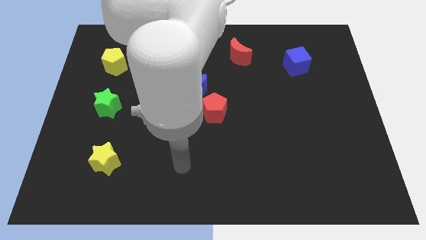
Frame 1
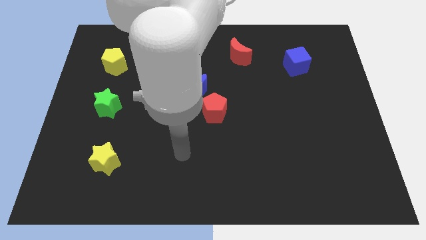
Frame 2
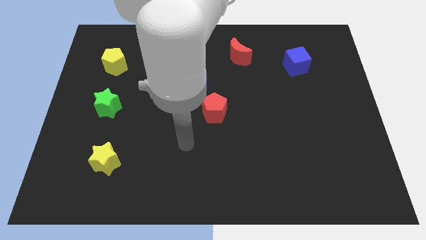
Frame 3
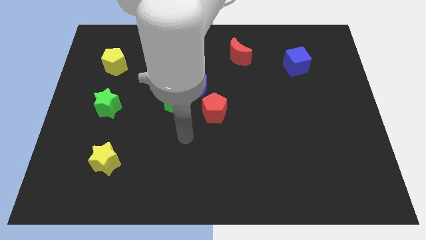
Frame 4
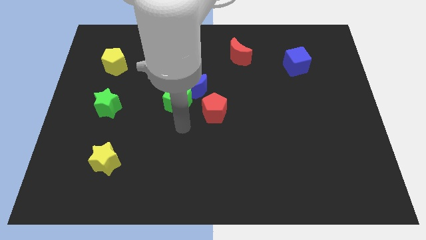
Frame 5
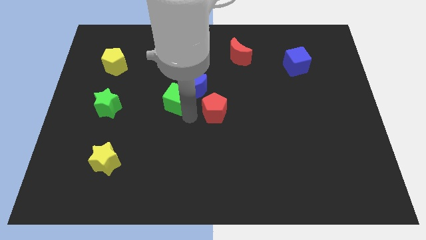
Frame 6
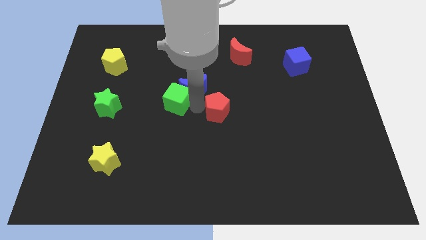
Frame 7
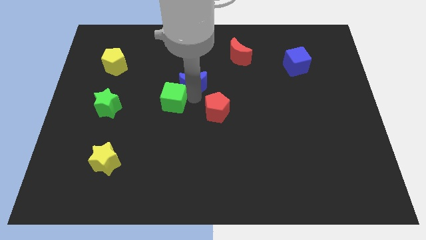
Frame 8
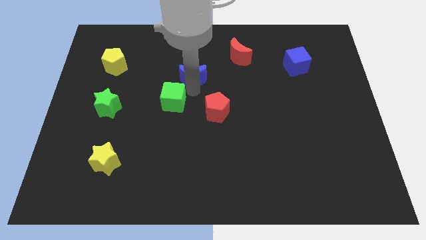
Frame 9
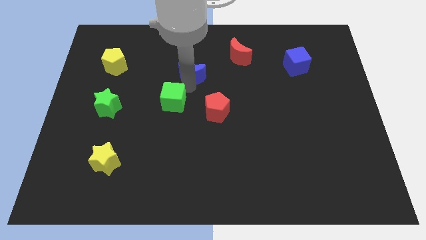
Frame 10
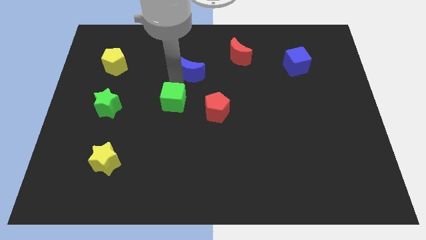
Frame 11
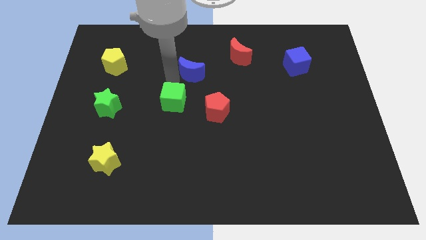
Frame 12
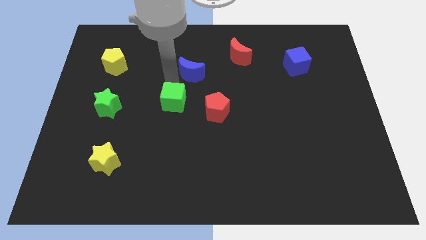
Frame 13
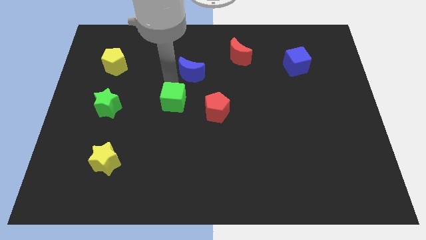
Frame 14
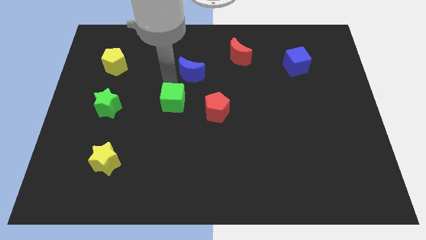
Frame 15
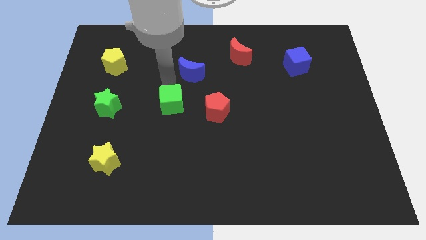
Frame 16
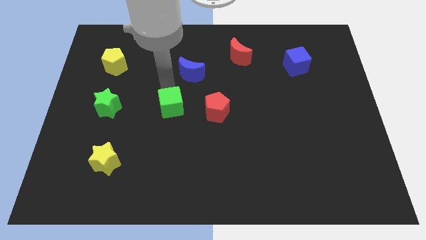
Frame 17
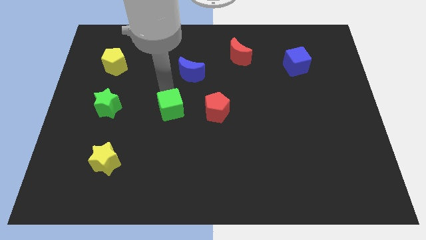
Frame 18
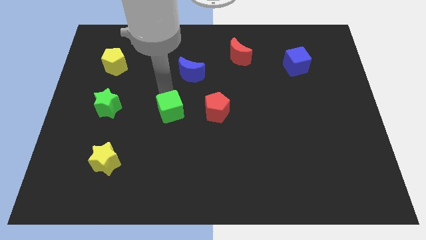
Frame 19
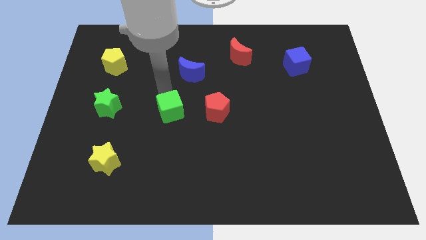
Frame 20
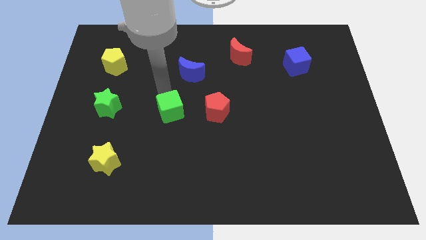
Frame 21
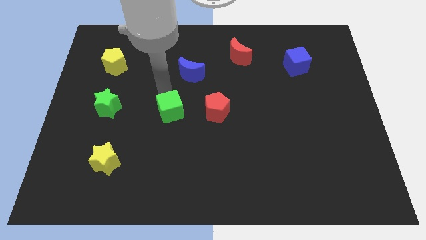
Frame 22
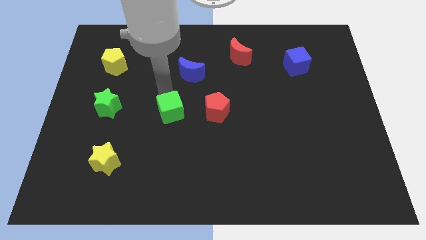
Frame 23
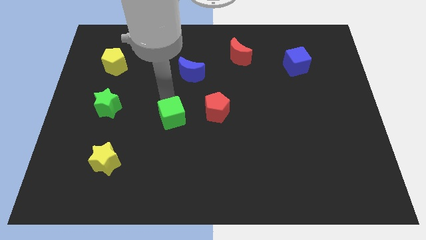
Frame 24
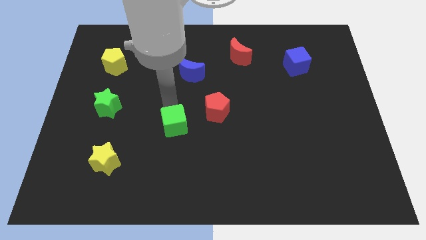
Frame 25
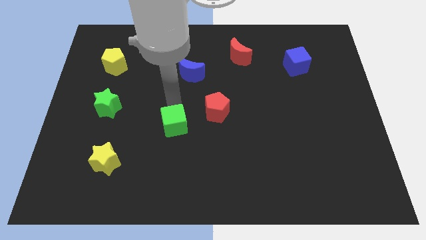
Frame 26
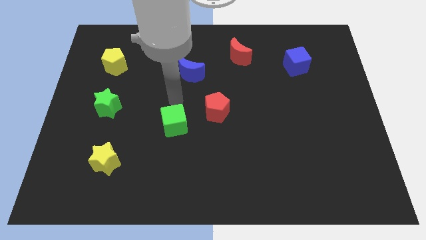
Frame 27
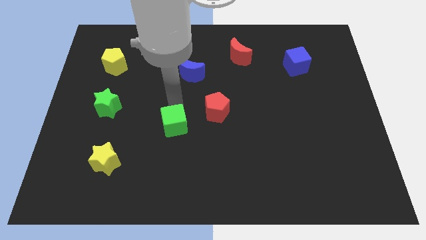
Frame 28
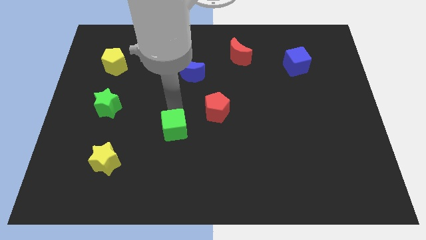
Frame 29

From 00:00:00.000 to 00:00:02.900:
move the green cube downwards slightly

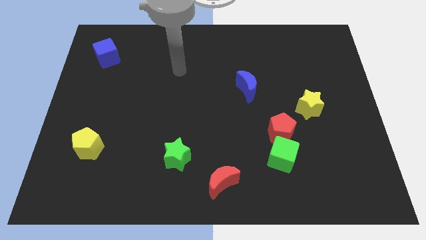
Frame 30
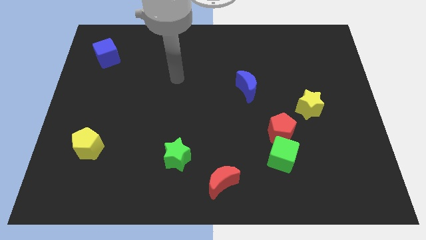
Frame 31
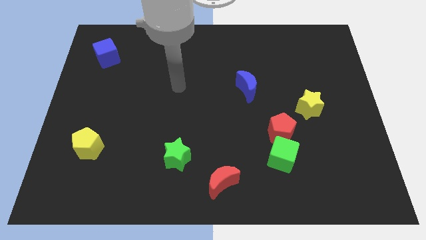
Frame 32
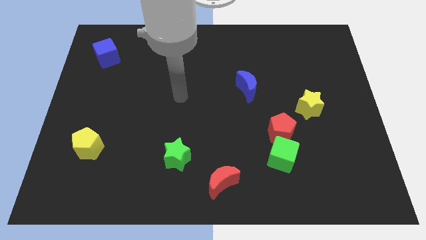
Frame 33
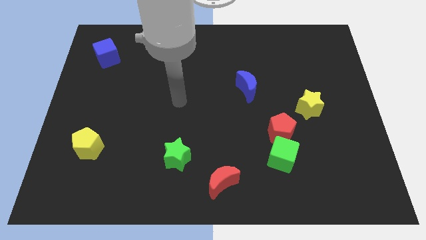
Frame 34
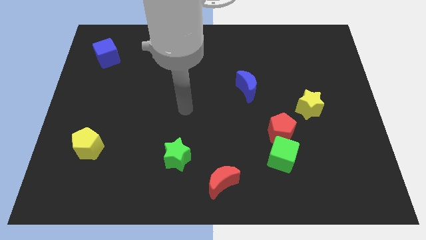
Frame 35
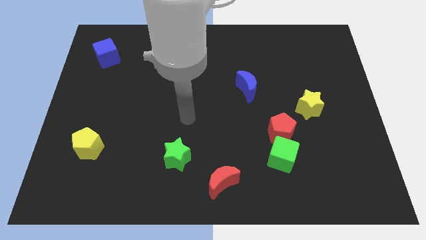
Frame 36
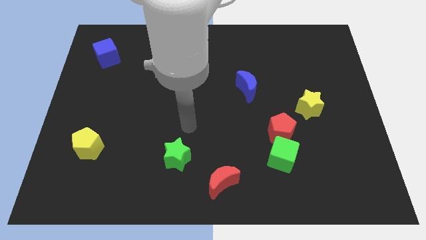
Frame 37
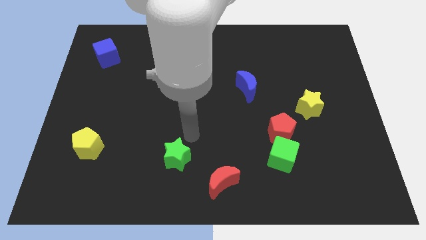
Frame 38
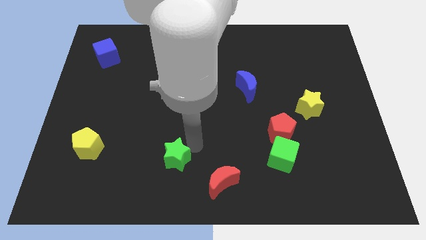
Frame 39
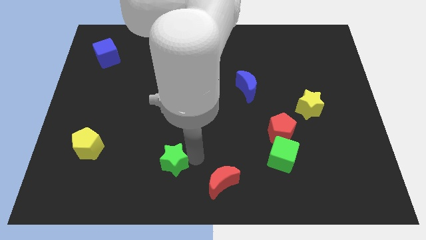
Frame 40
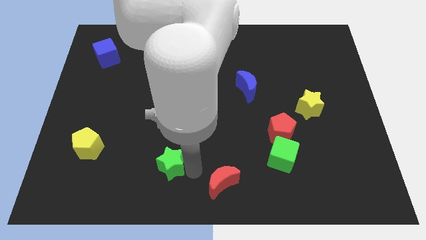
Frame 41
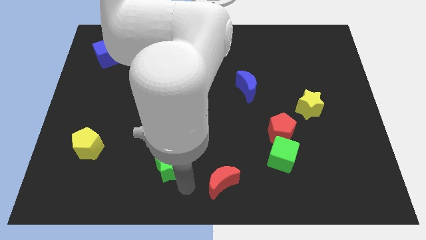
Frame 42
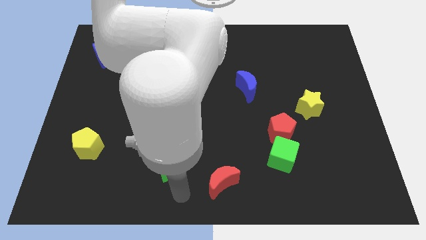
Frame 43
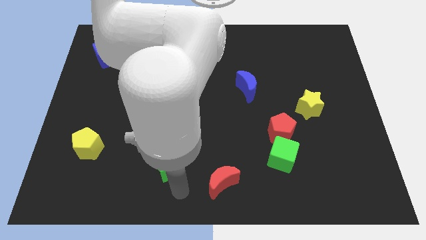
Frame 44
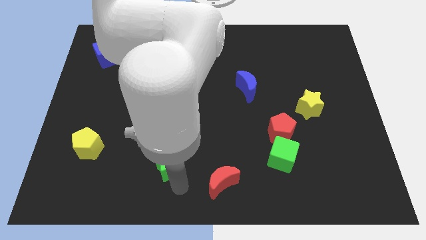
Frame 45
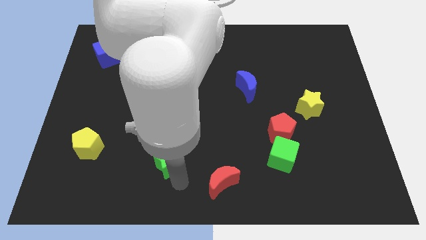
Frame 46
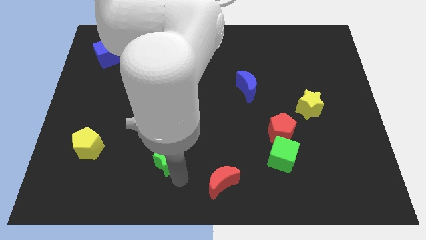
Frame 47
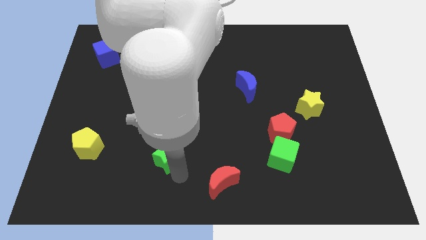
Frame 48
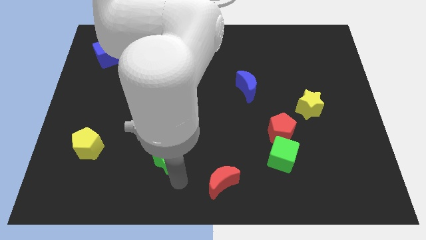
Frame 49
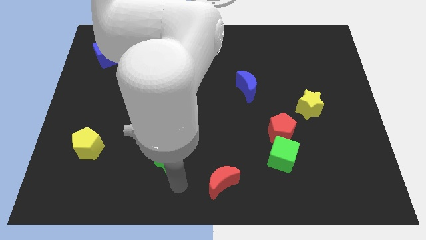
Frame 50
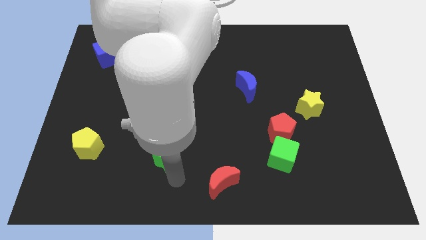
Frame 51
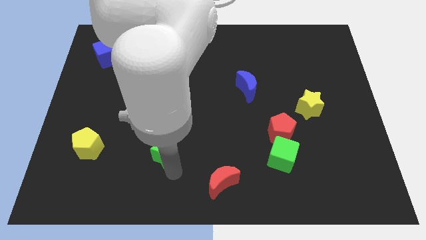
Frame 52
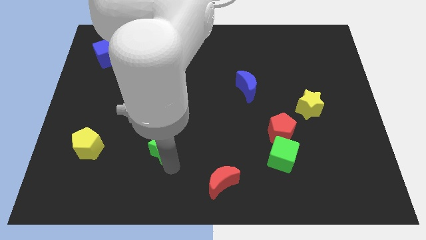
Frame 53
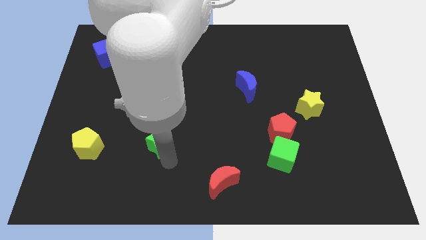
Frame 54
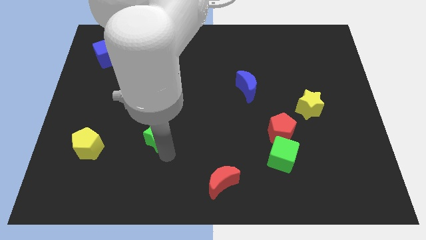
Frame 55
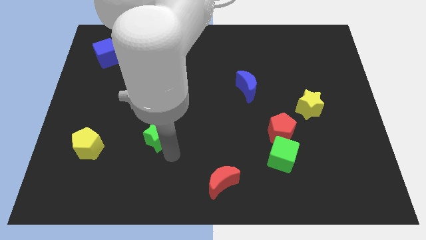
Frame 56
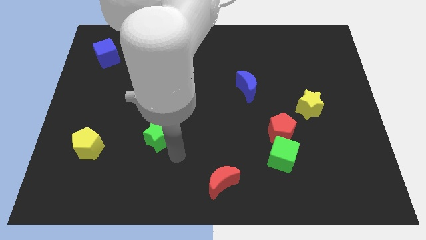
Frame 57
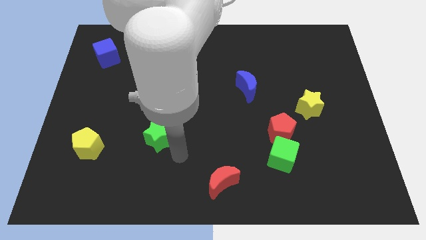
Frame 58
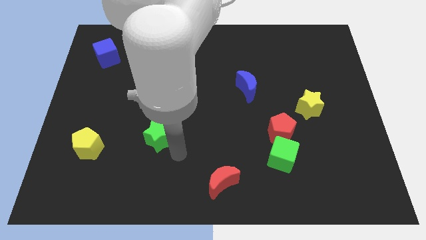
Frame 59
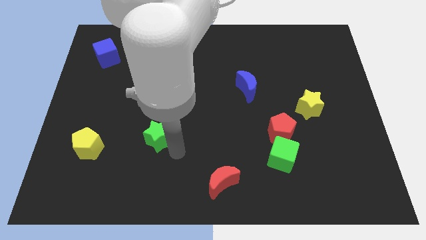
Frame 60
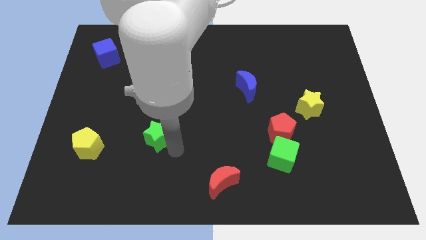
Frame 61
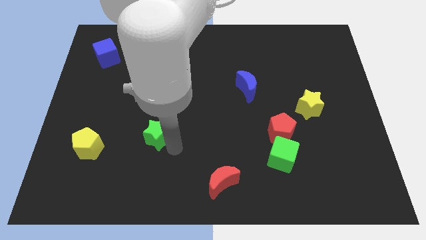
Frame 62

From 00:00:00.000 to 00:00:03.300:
move the green star a bit upwards and to the left

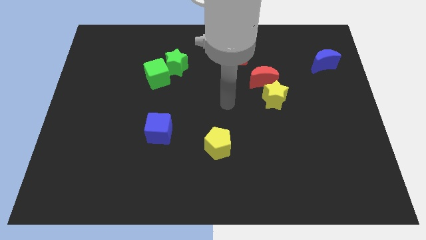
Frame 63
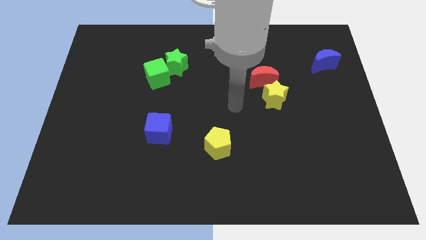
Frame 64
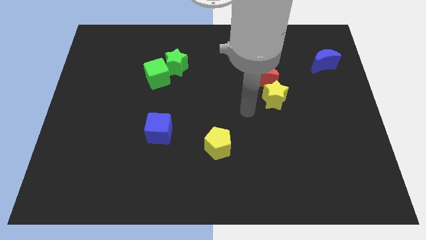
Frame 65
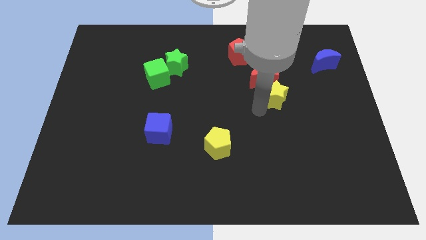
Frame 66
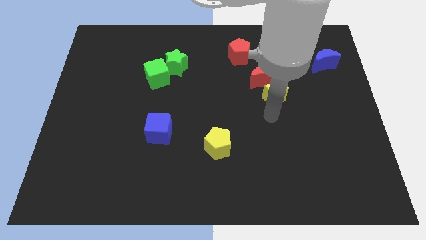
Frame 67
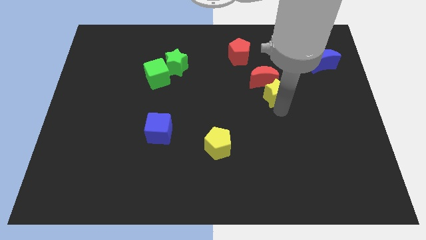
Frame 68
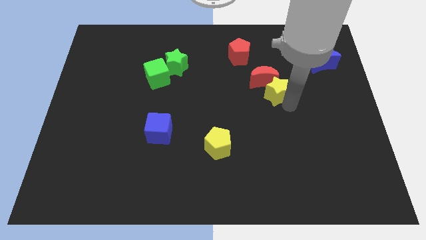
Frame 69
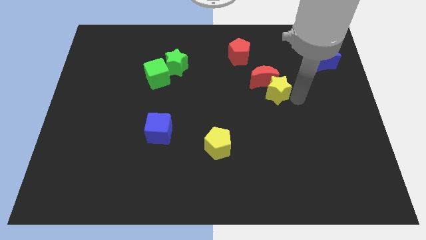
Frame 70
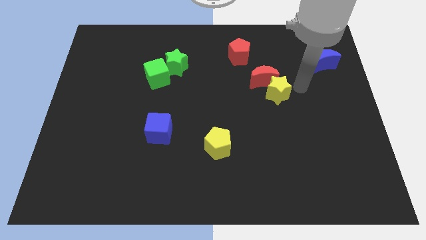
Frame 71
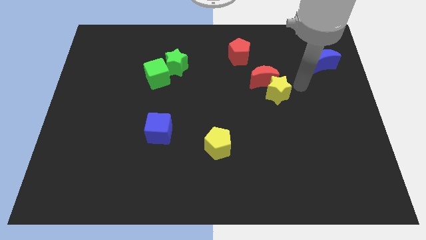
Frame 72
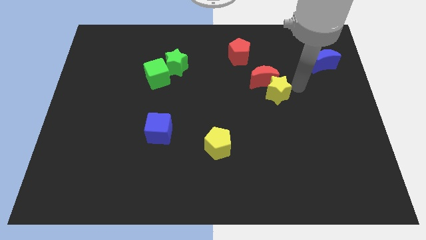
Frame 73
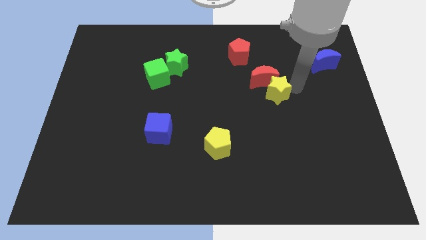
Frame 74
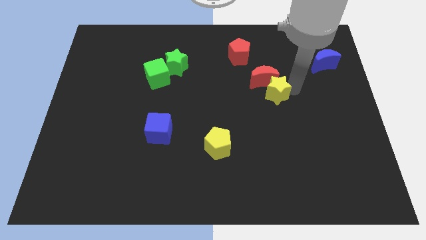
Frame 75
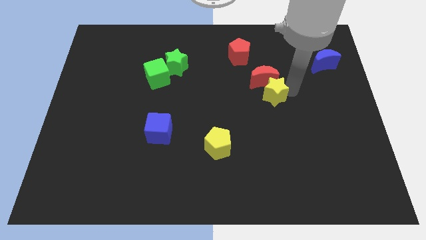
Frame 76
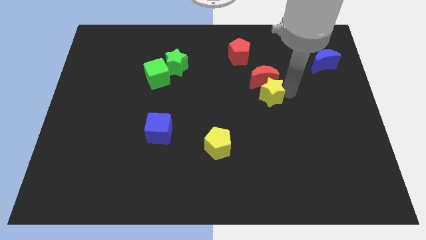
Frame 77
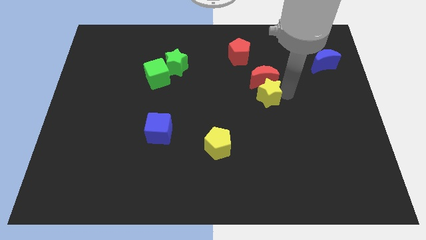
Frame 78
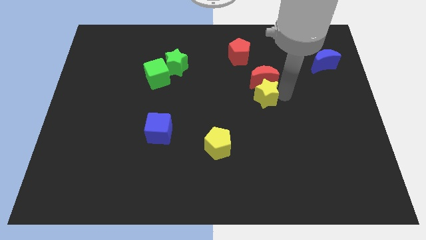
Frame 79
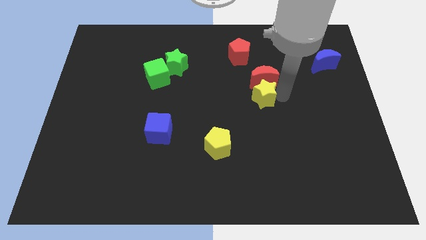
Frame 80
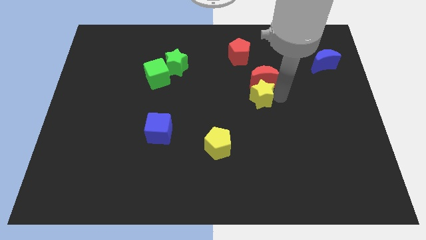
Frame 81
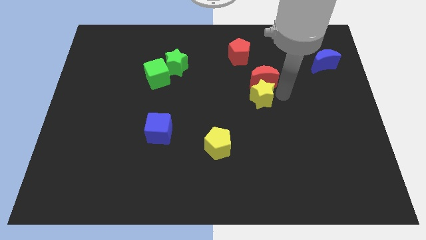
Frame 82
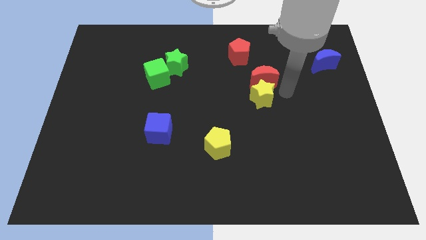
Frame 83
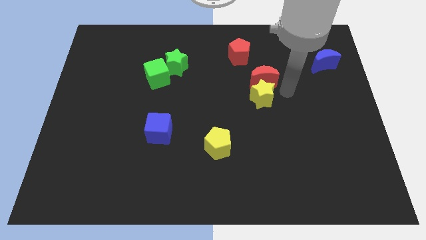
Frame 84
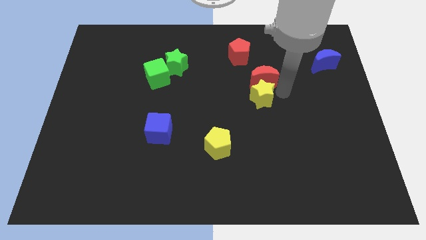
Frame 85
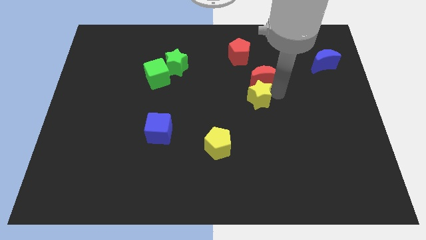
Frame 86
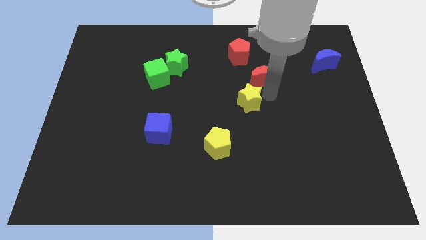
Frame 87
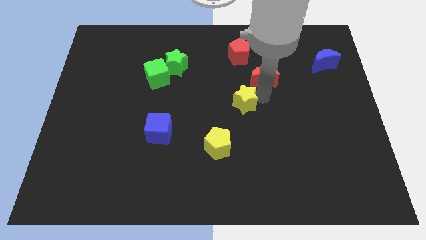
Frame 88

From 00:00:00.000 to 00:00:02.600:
move the yellow star to the left a little bit
